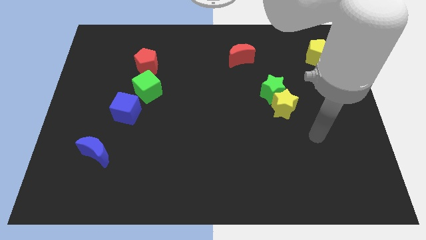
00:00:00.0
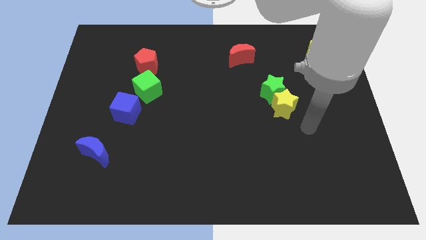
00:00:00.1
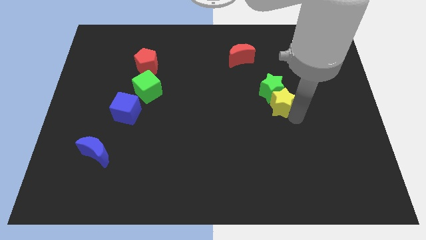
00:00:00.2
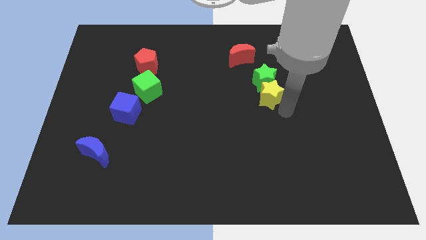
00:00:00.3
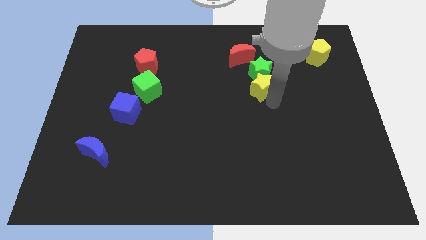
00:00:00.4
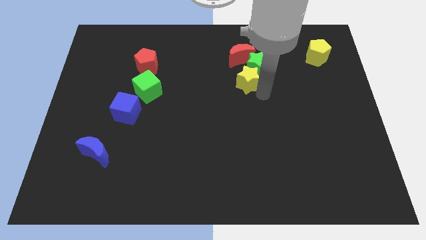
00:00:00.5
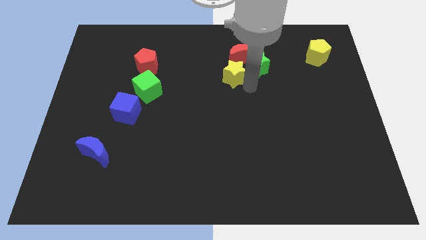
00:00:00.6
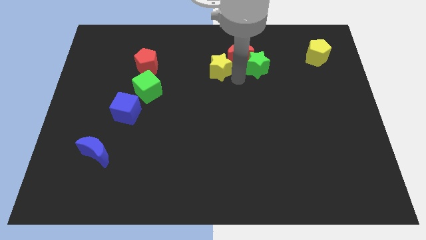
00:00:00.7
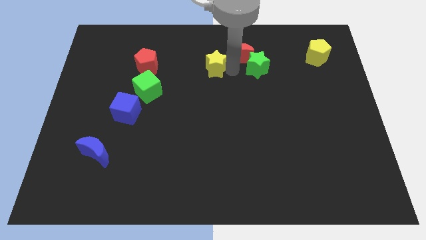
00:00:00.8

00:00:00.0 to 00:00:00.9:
move the green star away from the yellow star

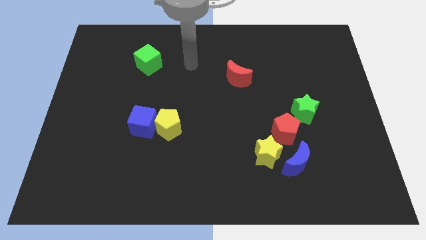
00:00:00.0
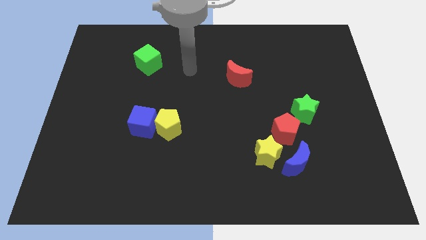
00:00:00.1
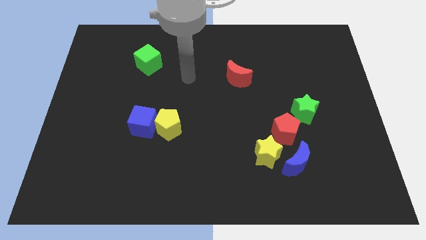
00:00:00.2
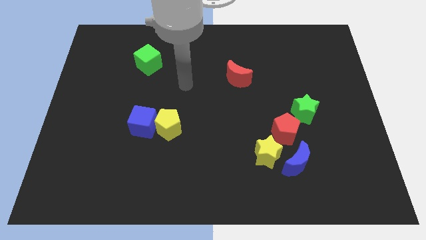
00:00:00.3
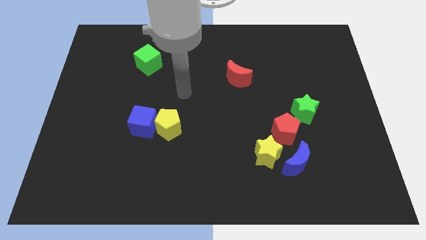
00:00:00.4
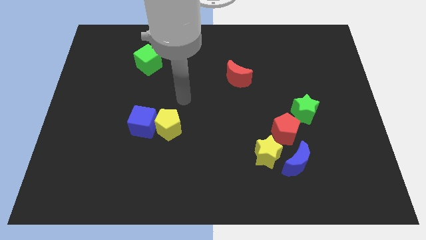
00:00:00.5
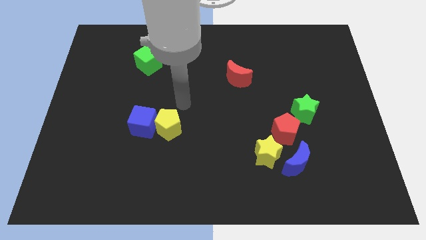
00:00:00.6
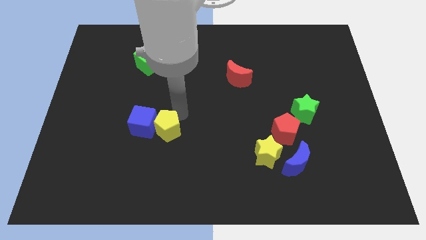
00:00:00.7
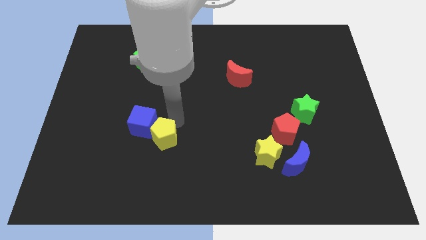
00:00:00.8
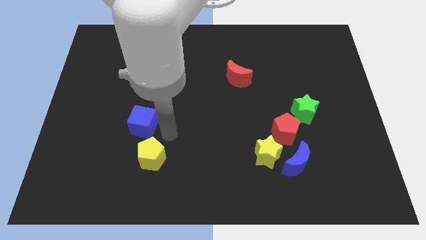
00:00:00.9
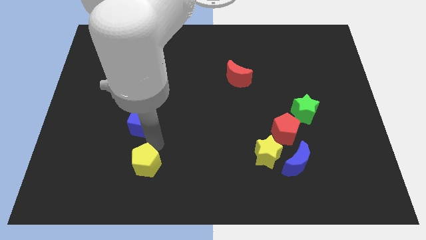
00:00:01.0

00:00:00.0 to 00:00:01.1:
pull the blue cube apart from the yellow pentagon

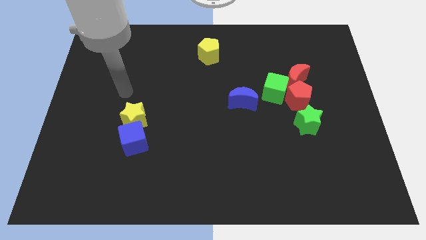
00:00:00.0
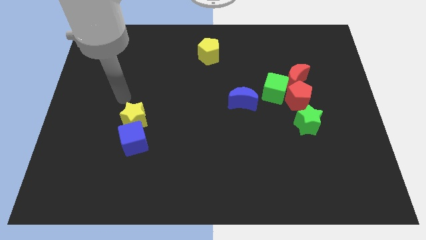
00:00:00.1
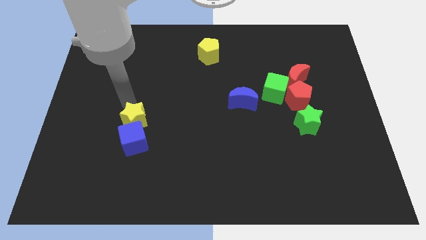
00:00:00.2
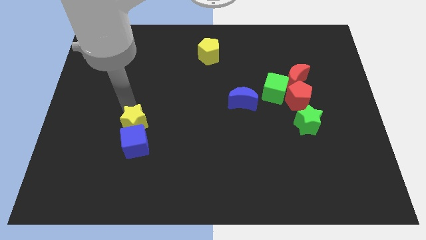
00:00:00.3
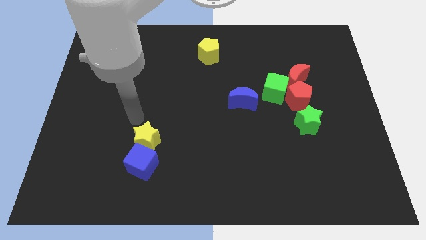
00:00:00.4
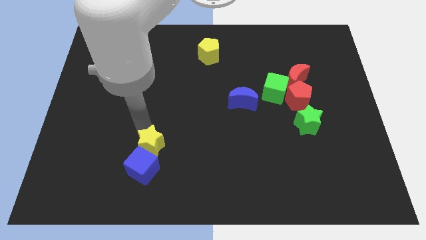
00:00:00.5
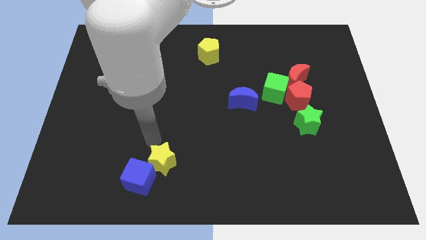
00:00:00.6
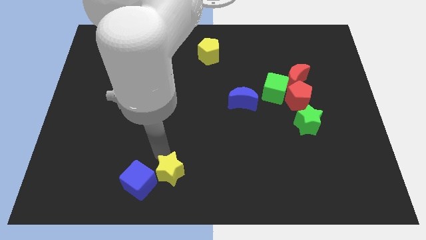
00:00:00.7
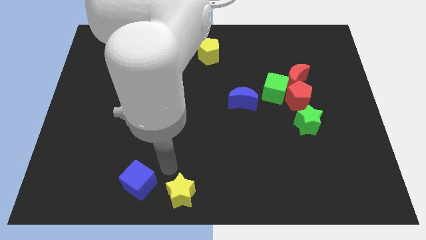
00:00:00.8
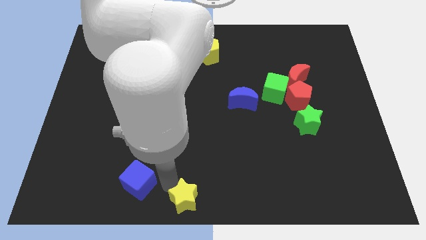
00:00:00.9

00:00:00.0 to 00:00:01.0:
pull the blue cube apart from the yellow star

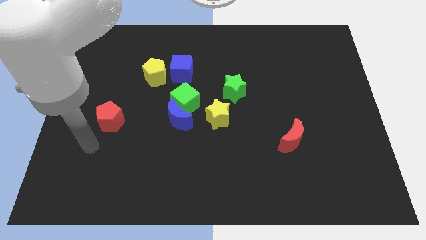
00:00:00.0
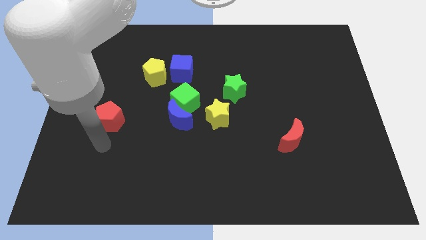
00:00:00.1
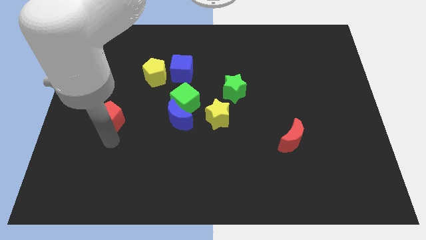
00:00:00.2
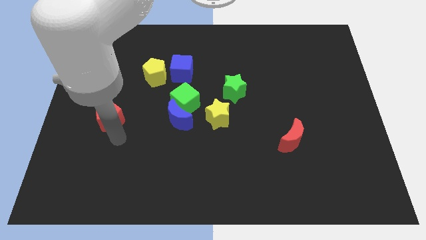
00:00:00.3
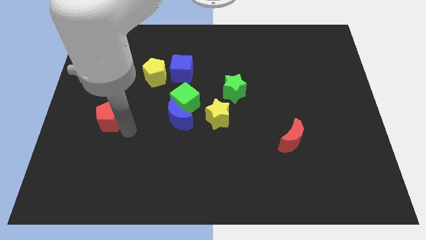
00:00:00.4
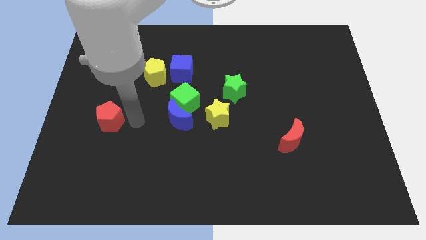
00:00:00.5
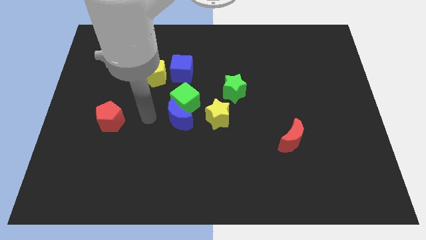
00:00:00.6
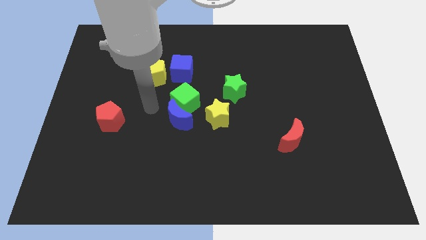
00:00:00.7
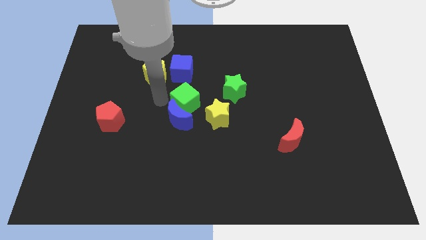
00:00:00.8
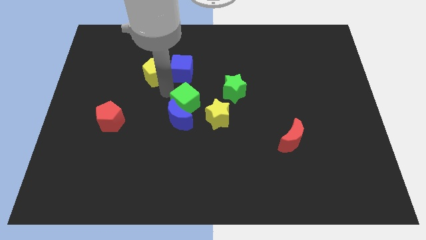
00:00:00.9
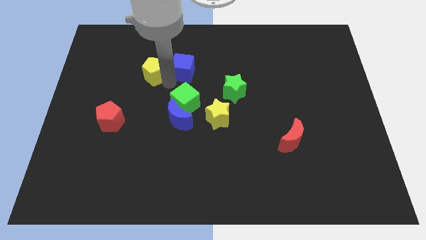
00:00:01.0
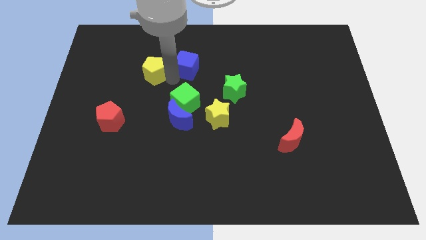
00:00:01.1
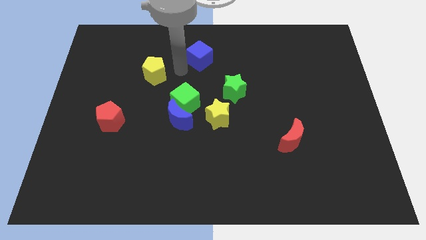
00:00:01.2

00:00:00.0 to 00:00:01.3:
separate the yellow pentagon from the blue cube

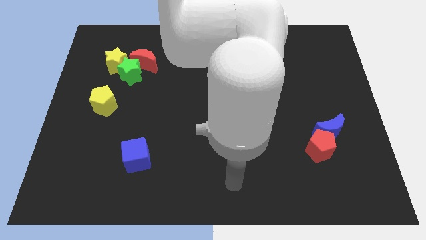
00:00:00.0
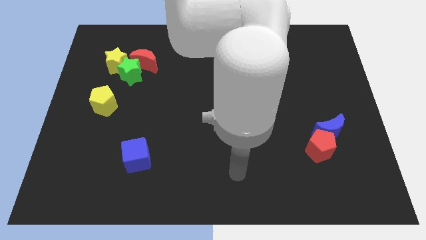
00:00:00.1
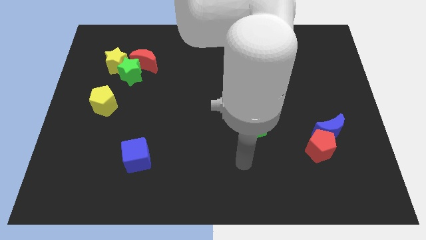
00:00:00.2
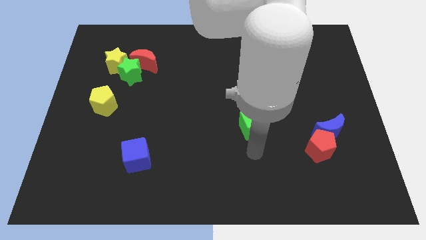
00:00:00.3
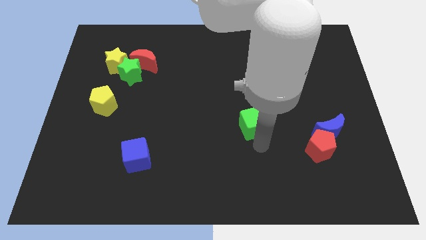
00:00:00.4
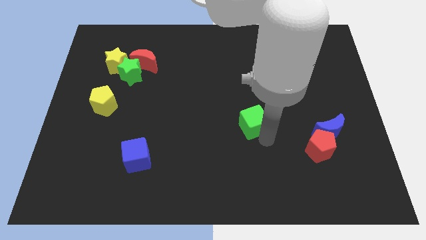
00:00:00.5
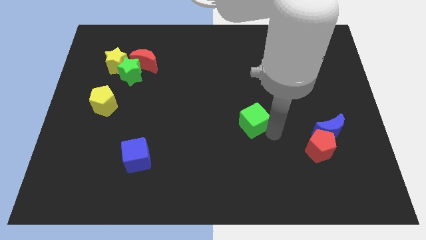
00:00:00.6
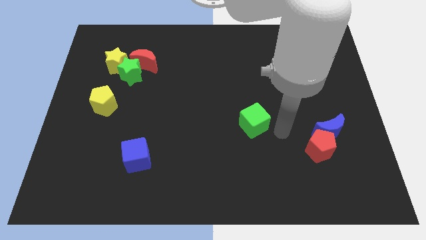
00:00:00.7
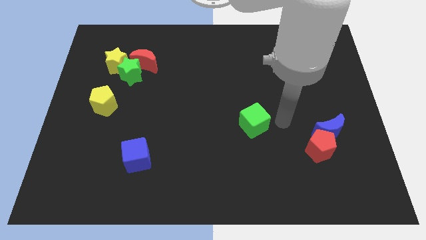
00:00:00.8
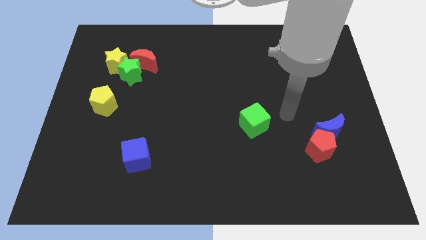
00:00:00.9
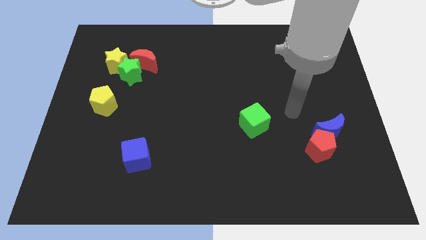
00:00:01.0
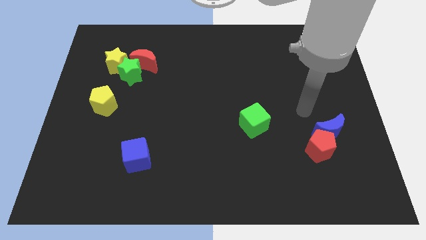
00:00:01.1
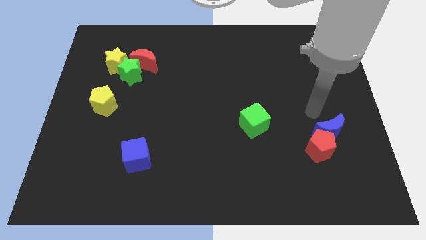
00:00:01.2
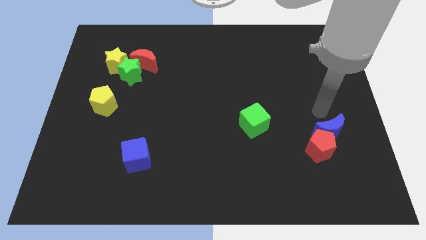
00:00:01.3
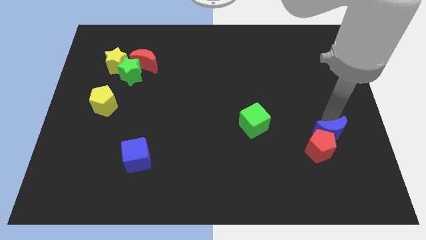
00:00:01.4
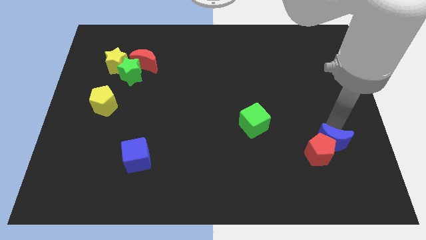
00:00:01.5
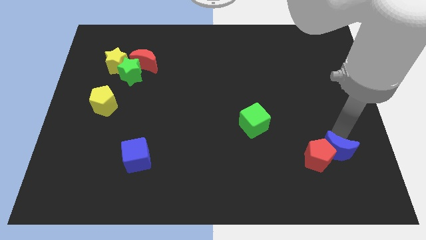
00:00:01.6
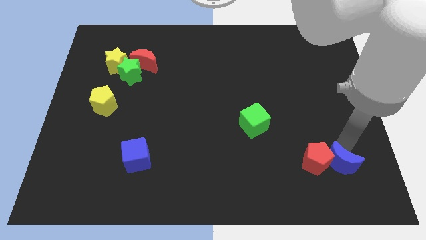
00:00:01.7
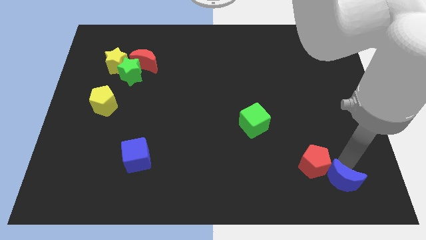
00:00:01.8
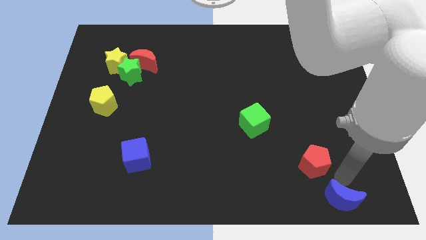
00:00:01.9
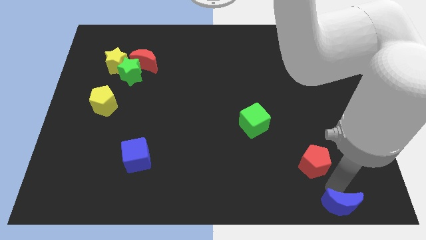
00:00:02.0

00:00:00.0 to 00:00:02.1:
separate the red pentagon from the blue moon

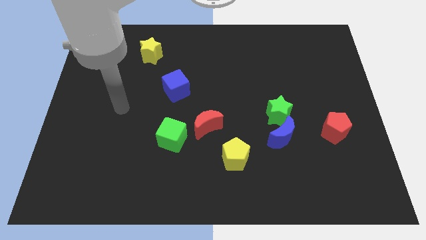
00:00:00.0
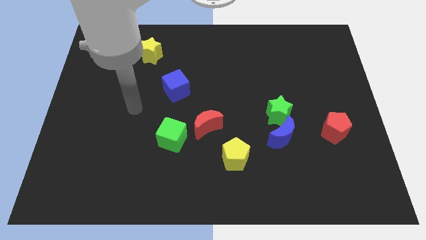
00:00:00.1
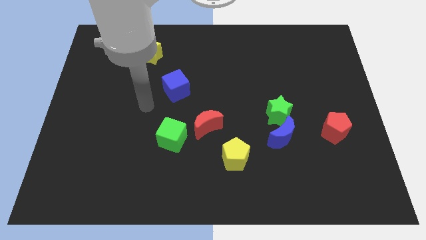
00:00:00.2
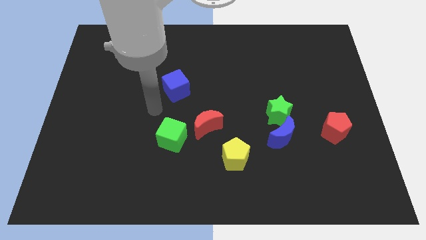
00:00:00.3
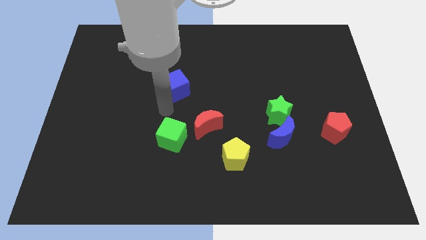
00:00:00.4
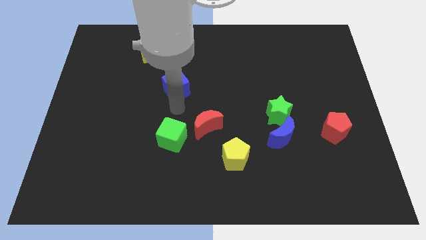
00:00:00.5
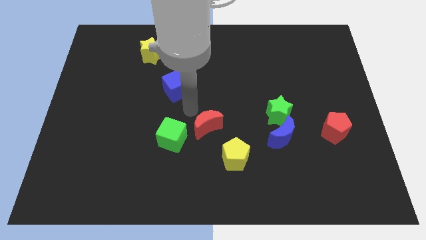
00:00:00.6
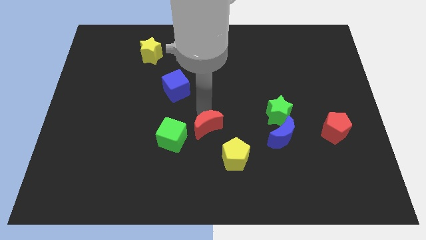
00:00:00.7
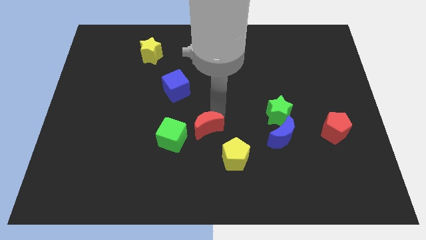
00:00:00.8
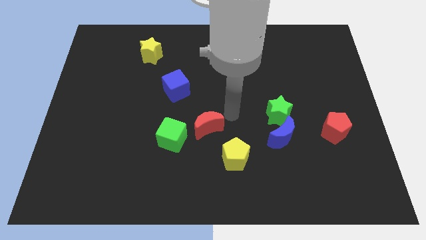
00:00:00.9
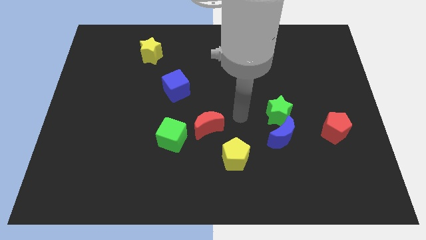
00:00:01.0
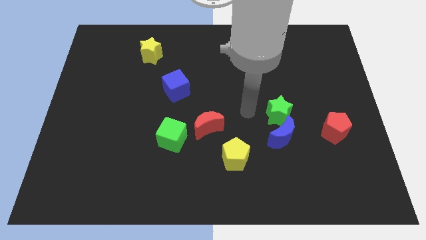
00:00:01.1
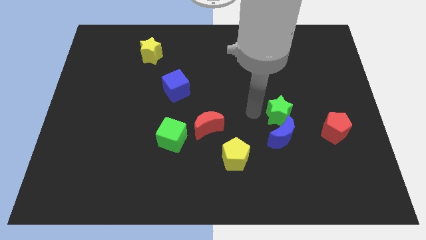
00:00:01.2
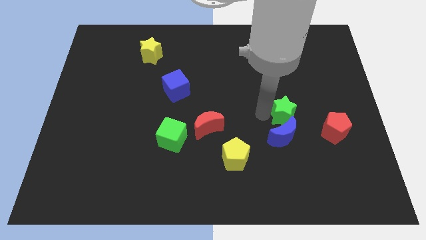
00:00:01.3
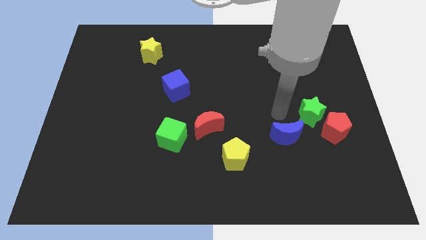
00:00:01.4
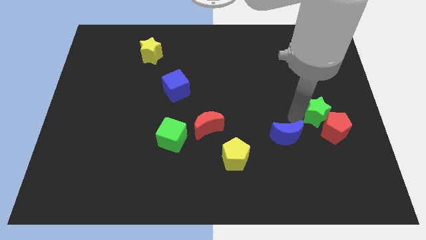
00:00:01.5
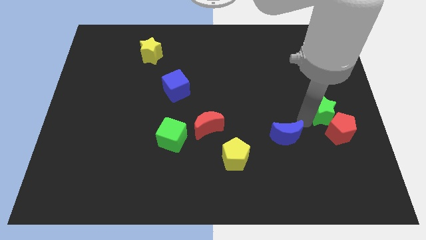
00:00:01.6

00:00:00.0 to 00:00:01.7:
separate the blue moon from the green star

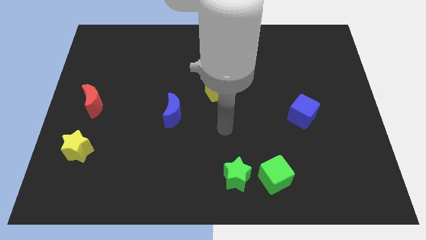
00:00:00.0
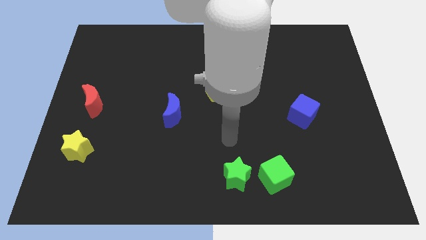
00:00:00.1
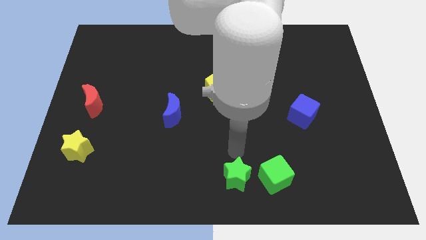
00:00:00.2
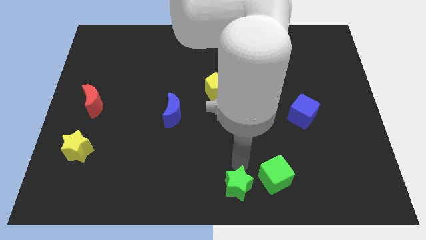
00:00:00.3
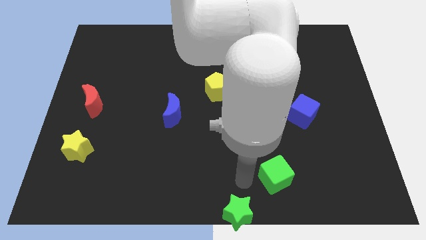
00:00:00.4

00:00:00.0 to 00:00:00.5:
separate the green cube from the green star

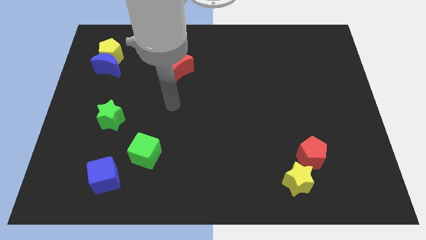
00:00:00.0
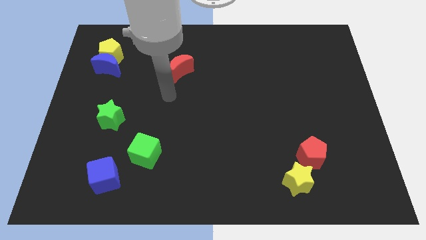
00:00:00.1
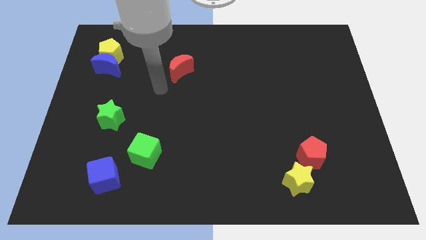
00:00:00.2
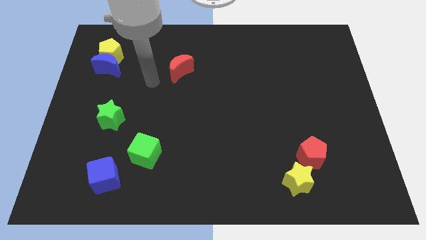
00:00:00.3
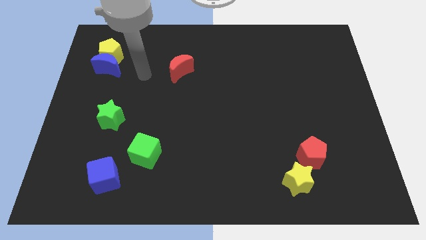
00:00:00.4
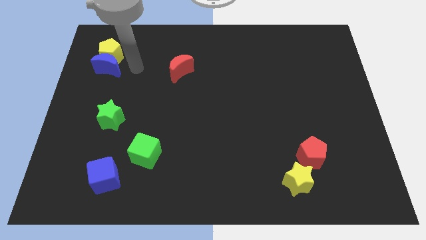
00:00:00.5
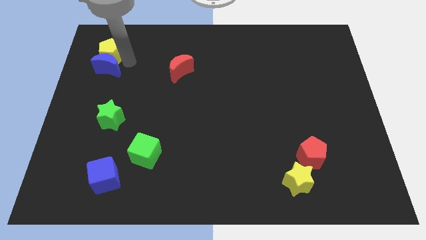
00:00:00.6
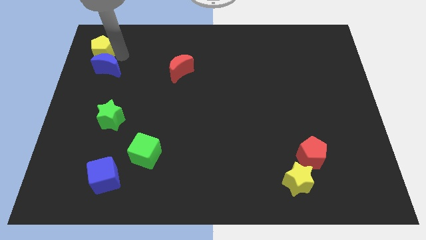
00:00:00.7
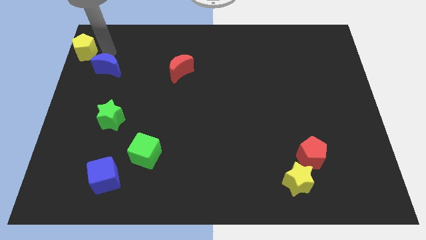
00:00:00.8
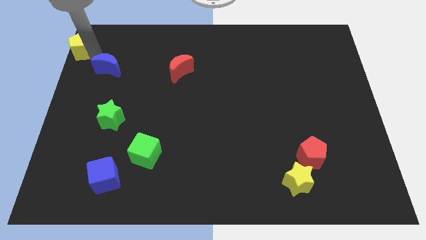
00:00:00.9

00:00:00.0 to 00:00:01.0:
move the blue moon away from the yellow pentagon
